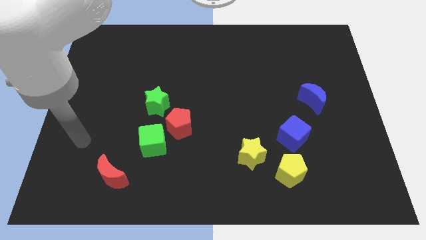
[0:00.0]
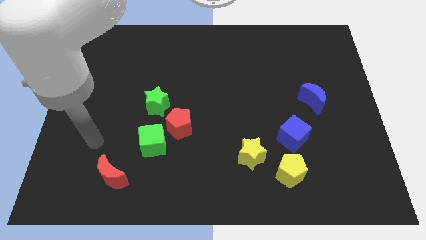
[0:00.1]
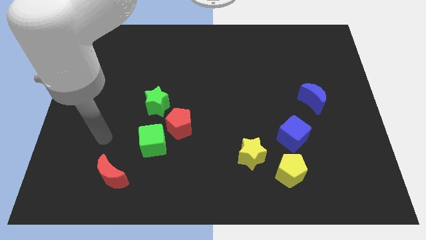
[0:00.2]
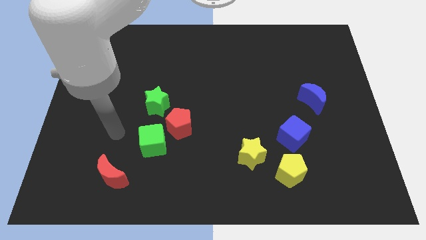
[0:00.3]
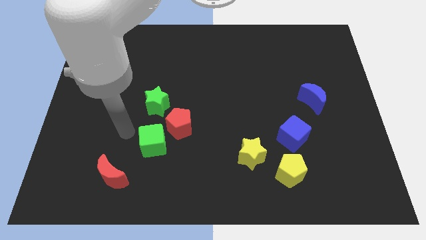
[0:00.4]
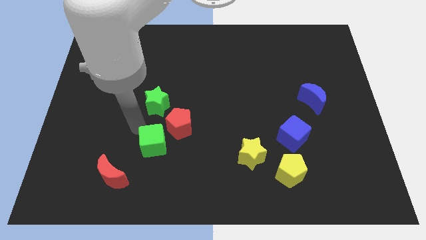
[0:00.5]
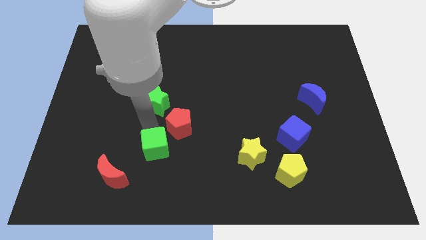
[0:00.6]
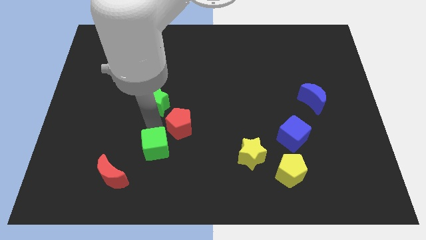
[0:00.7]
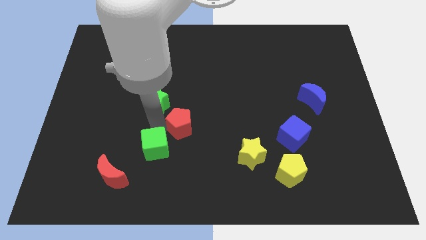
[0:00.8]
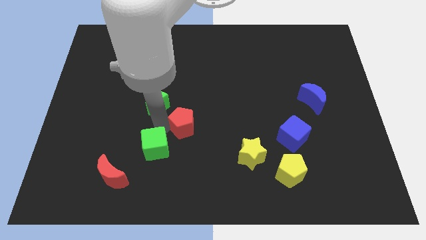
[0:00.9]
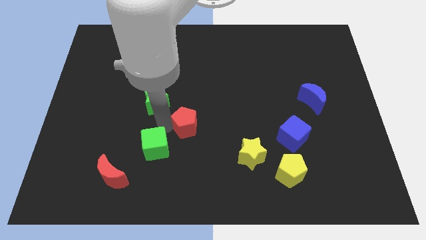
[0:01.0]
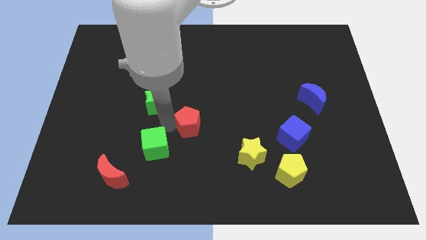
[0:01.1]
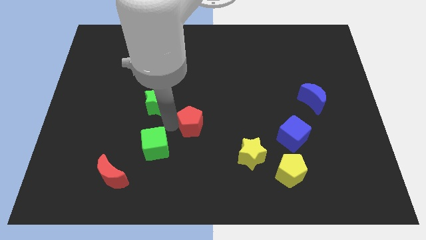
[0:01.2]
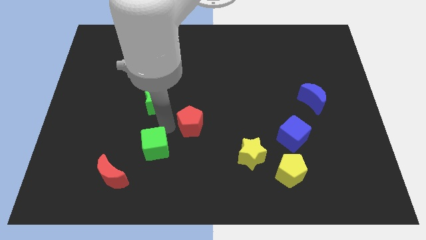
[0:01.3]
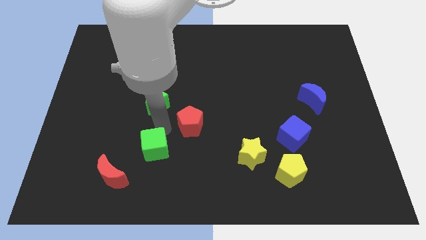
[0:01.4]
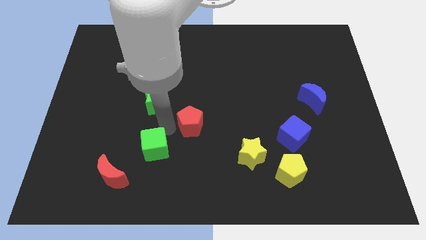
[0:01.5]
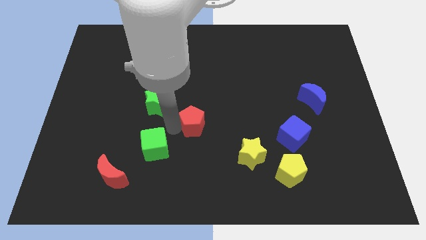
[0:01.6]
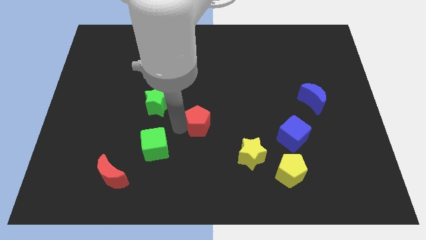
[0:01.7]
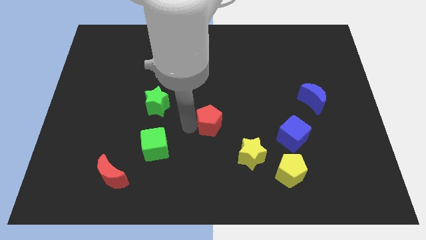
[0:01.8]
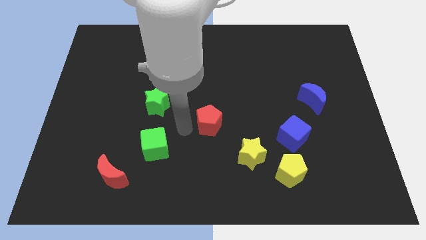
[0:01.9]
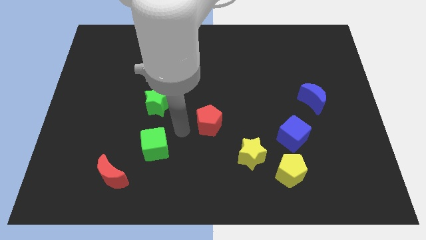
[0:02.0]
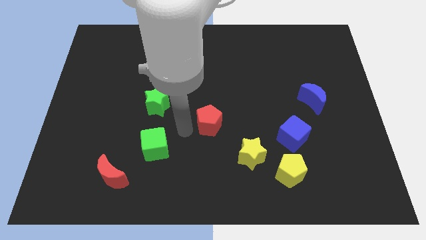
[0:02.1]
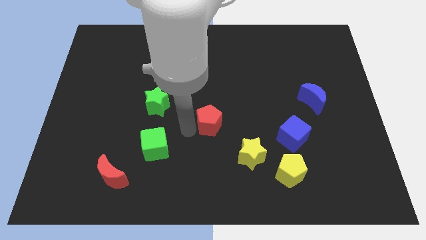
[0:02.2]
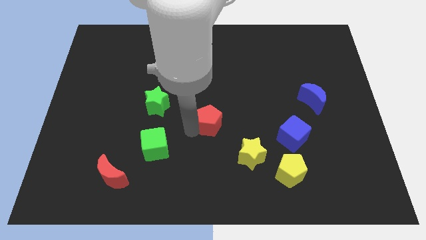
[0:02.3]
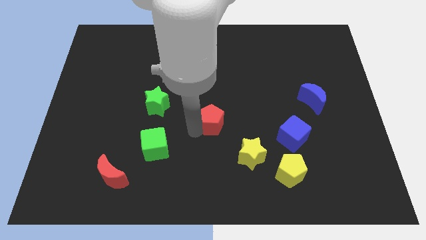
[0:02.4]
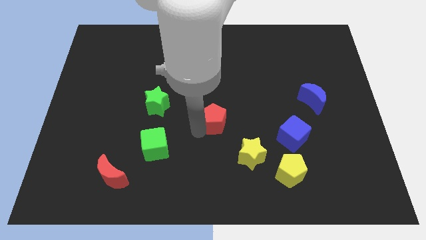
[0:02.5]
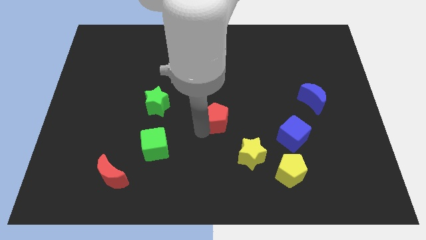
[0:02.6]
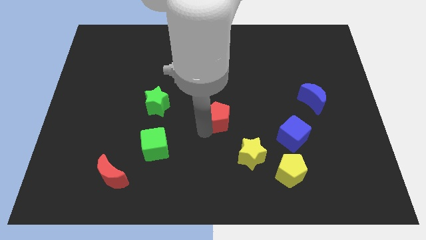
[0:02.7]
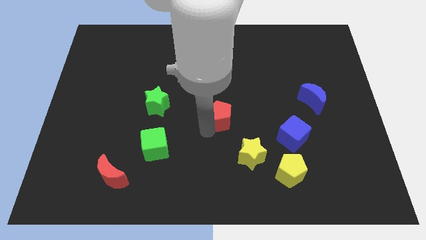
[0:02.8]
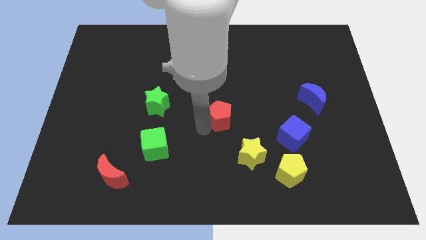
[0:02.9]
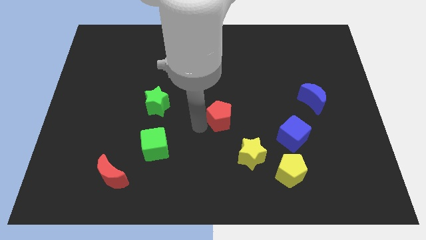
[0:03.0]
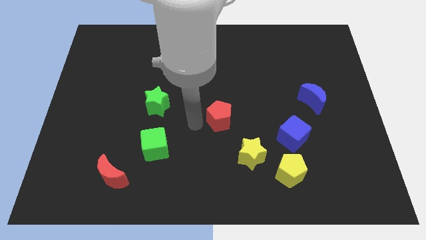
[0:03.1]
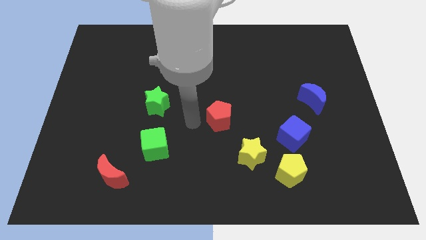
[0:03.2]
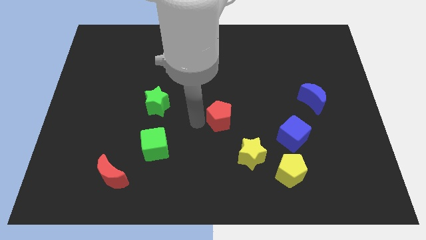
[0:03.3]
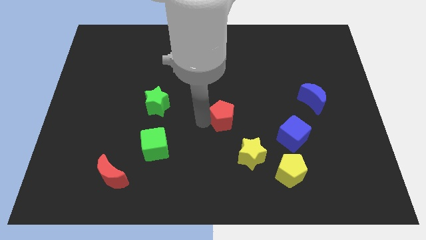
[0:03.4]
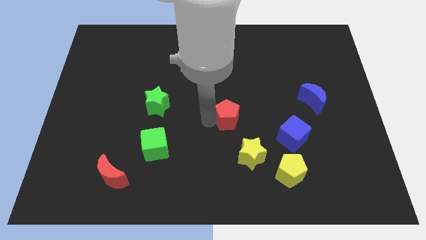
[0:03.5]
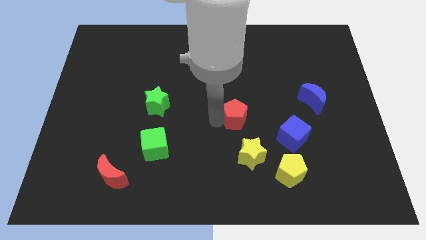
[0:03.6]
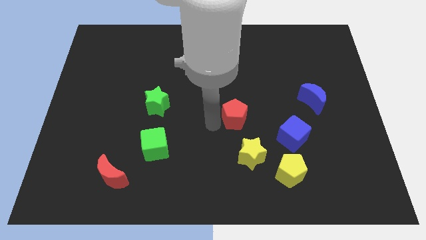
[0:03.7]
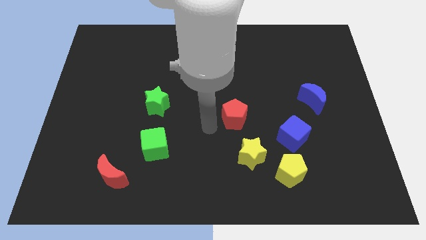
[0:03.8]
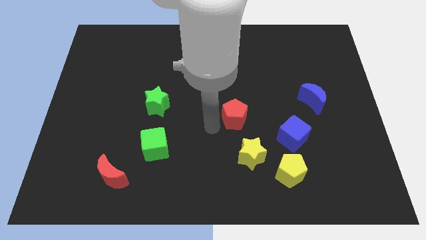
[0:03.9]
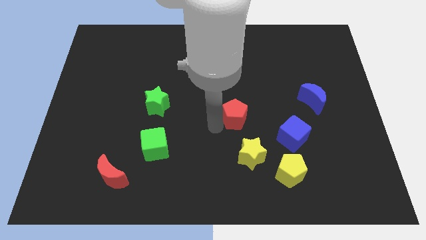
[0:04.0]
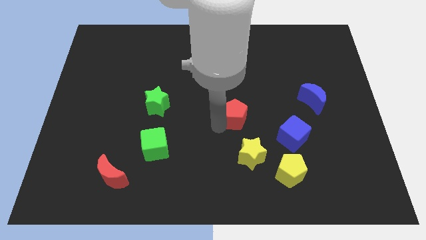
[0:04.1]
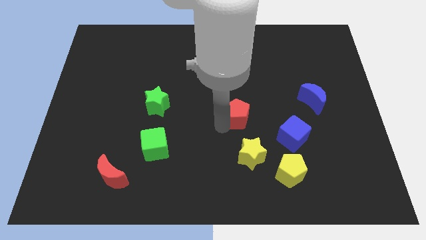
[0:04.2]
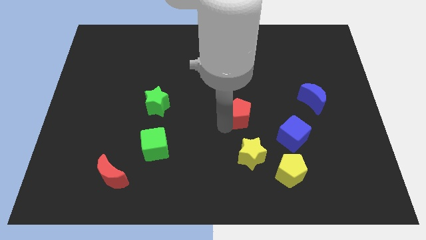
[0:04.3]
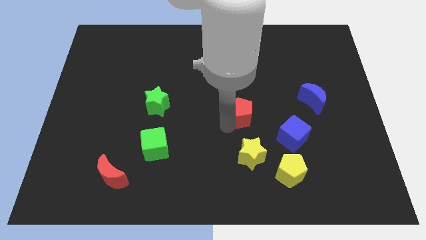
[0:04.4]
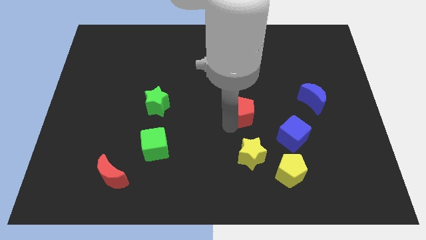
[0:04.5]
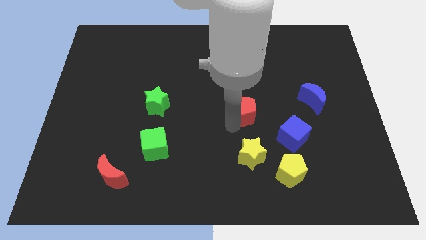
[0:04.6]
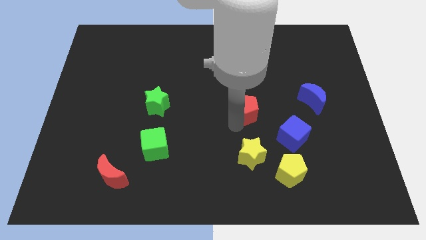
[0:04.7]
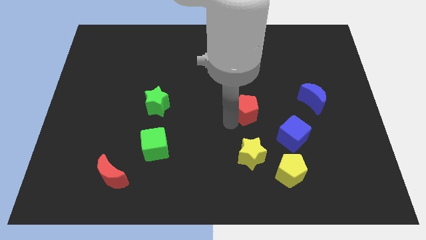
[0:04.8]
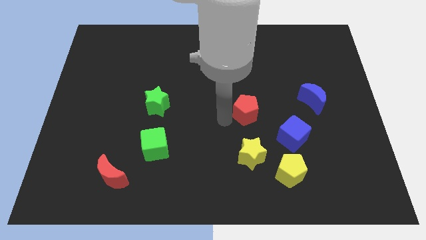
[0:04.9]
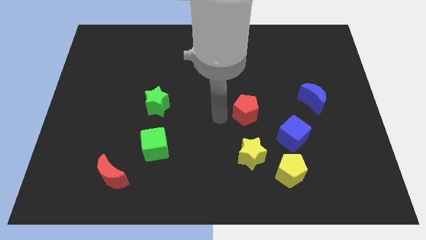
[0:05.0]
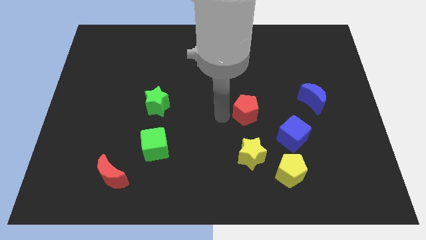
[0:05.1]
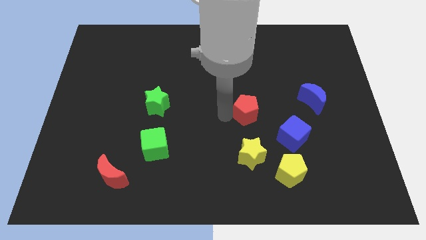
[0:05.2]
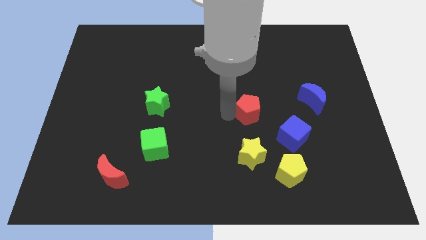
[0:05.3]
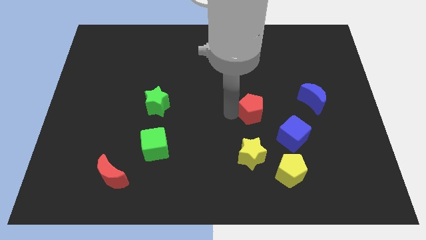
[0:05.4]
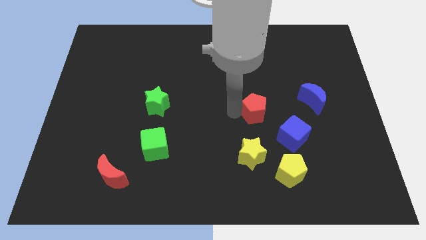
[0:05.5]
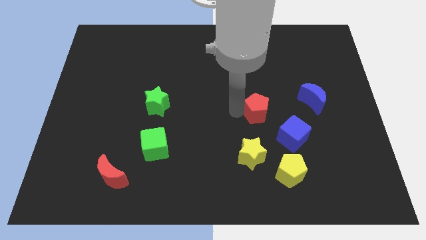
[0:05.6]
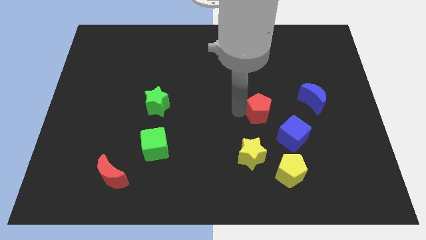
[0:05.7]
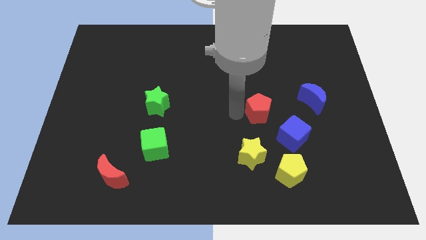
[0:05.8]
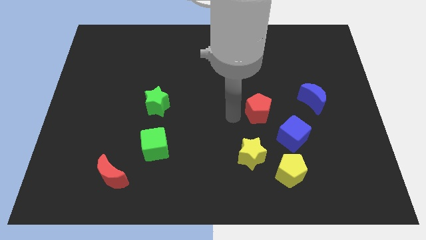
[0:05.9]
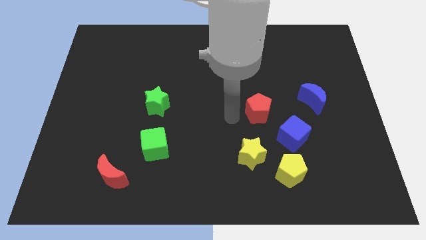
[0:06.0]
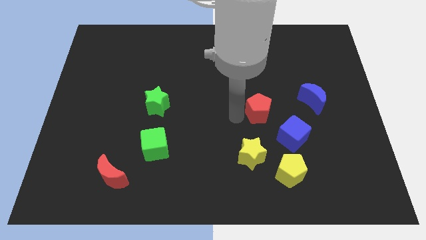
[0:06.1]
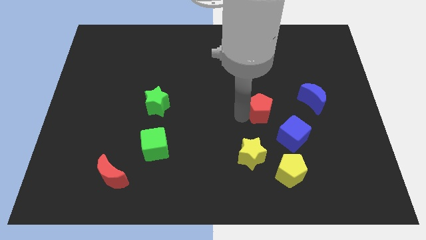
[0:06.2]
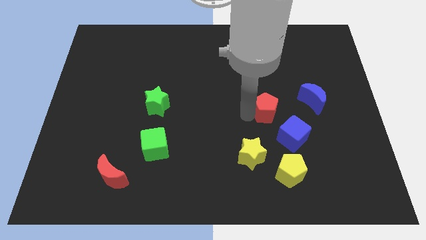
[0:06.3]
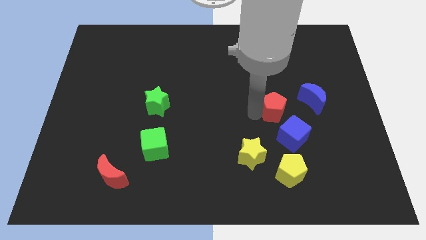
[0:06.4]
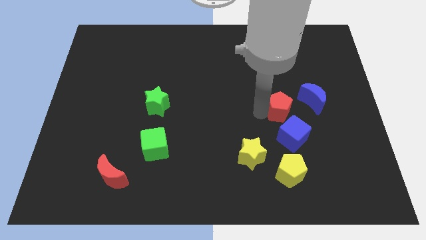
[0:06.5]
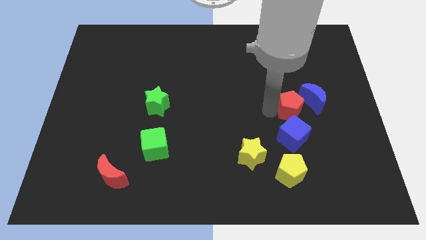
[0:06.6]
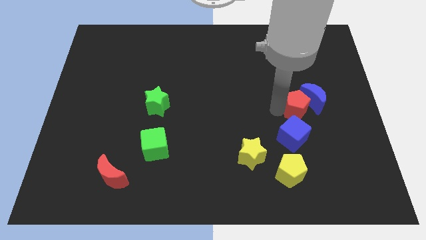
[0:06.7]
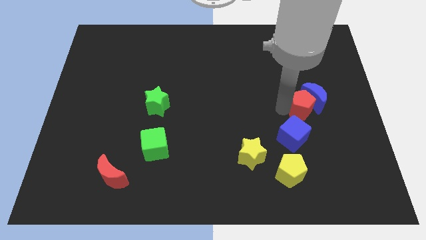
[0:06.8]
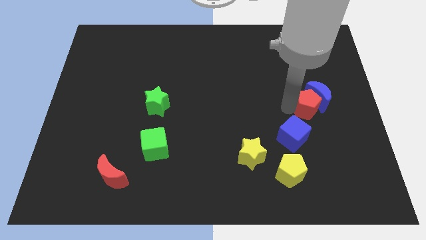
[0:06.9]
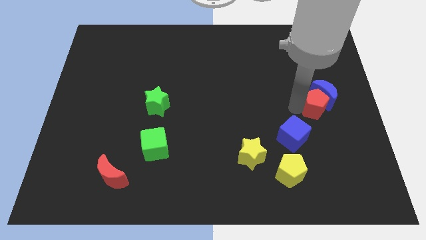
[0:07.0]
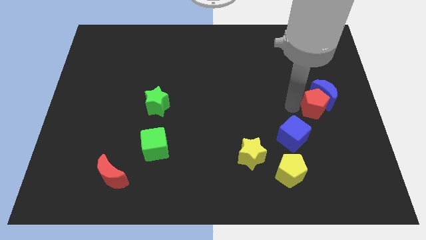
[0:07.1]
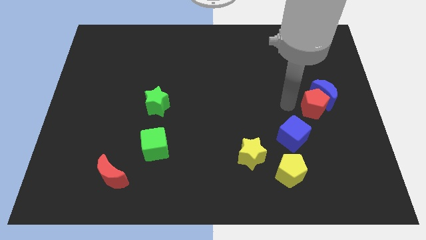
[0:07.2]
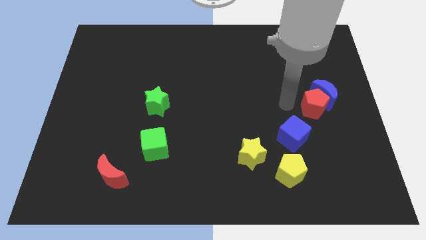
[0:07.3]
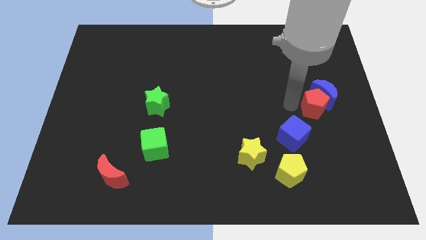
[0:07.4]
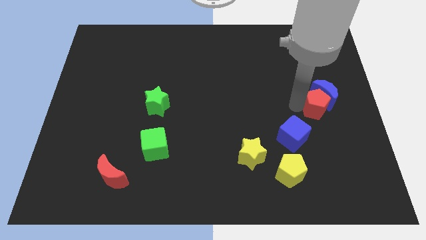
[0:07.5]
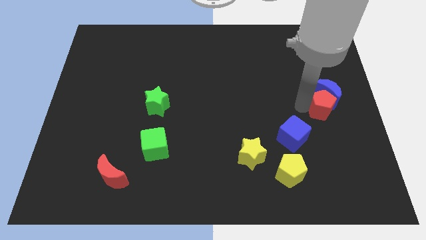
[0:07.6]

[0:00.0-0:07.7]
move the red pentagon to the right side
